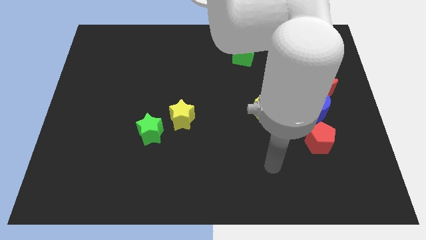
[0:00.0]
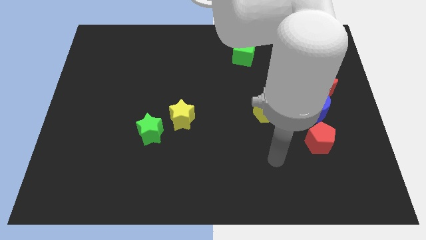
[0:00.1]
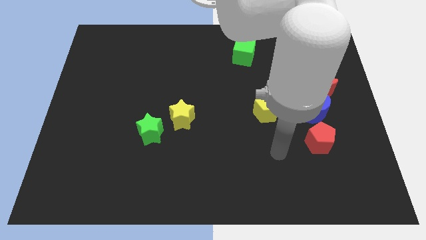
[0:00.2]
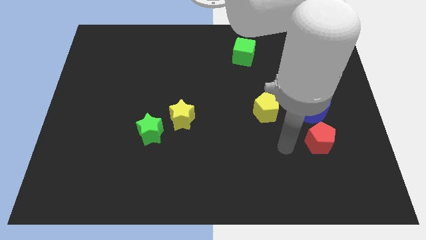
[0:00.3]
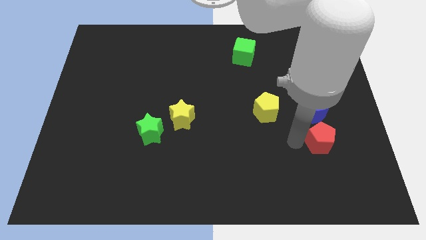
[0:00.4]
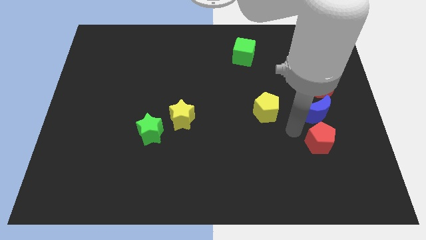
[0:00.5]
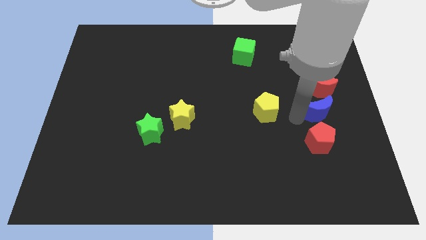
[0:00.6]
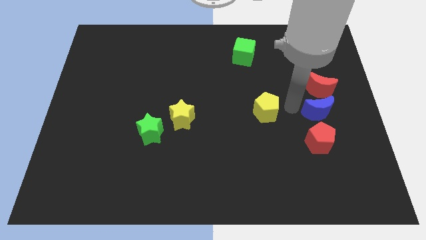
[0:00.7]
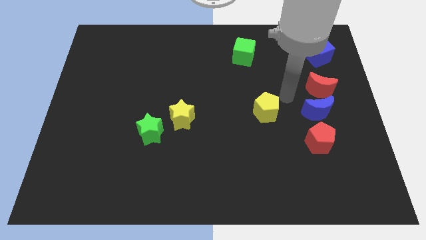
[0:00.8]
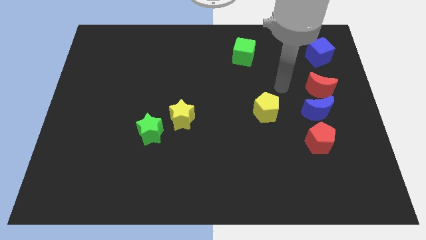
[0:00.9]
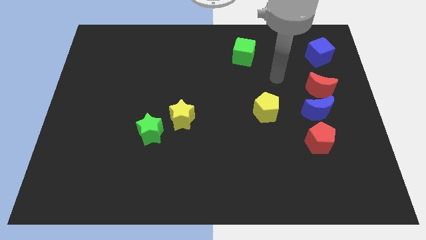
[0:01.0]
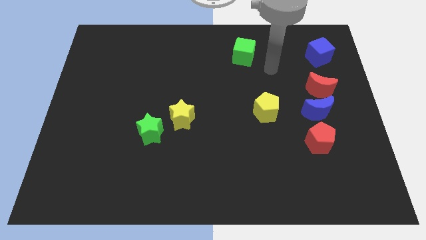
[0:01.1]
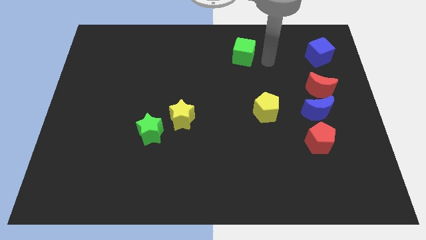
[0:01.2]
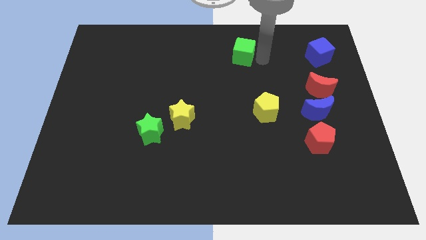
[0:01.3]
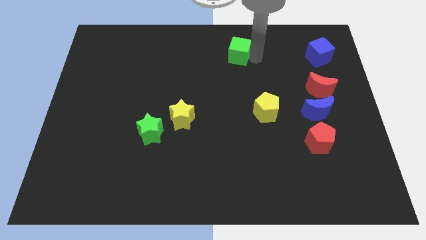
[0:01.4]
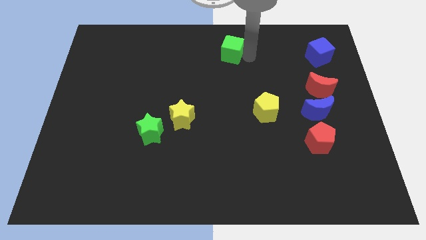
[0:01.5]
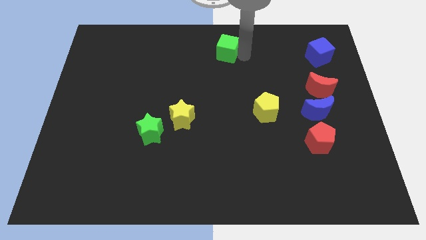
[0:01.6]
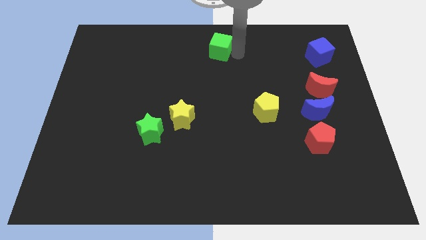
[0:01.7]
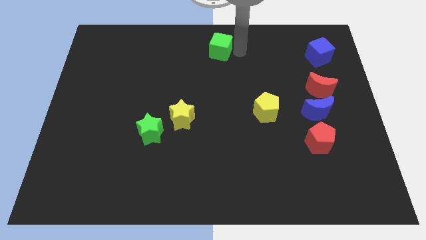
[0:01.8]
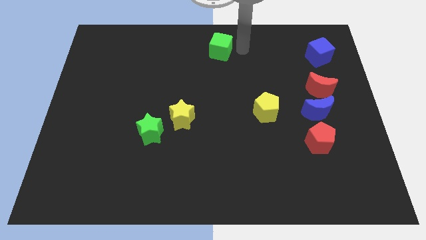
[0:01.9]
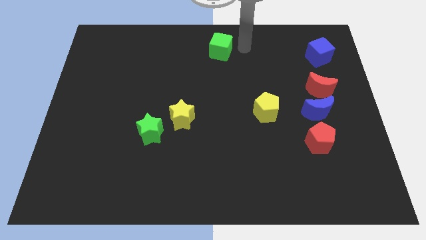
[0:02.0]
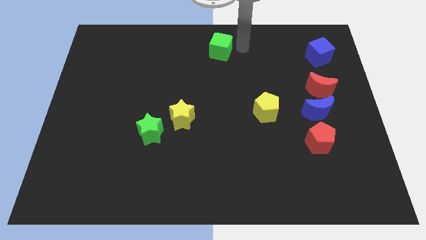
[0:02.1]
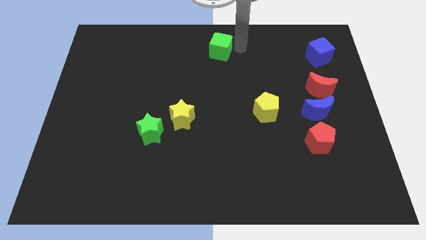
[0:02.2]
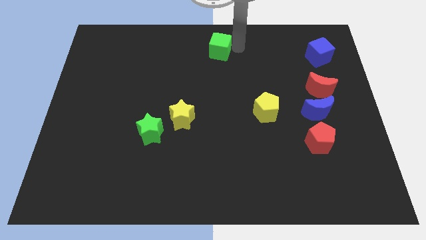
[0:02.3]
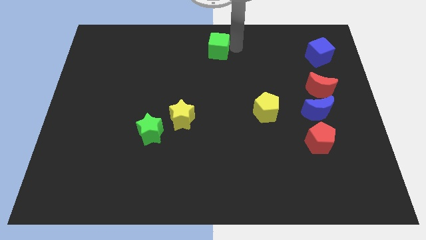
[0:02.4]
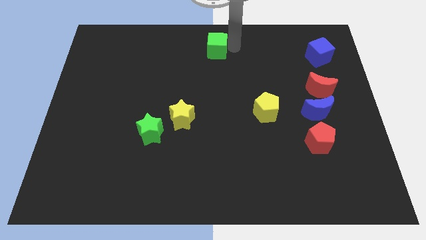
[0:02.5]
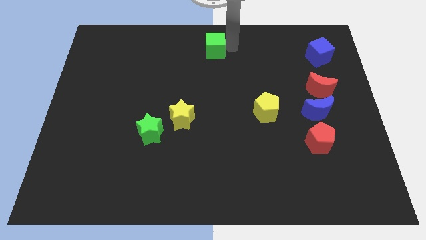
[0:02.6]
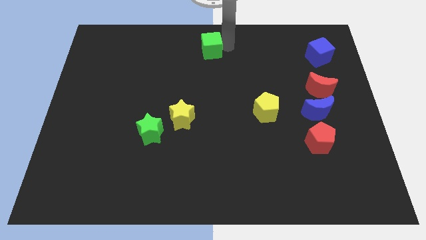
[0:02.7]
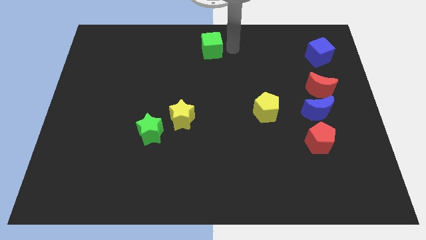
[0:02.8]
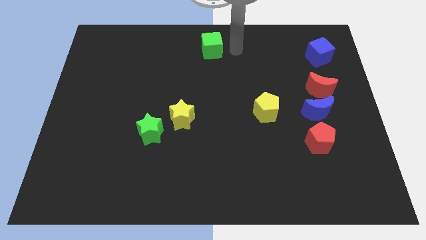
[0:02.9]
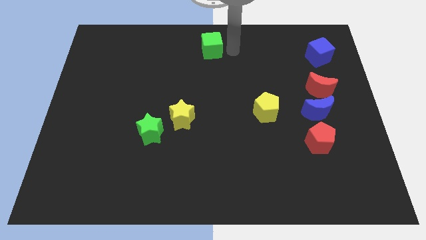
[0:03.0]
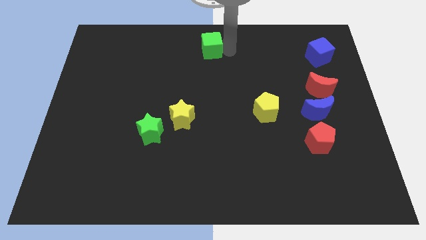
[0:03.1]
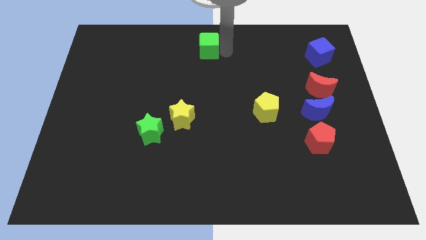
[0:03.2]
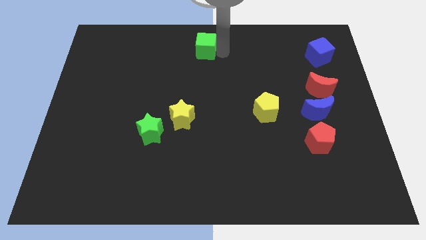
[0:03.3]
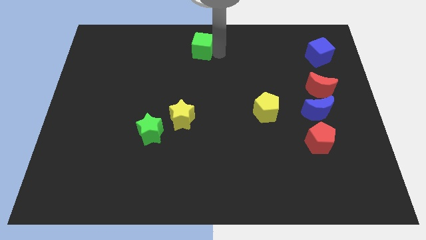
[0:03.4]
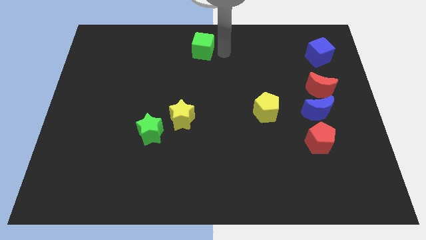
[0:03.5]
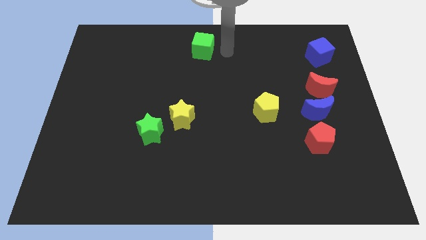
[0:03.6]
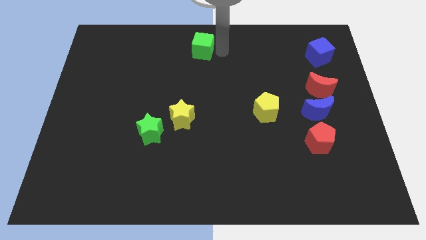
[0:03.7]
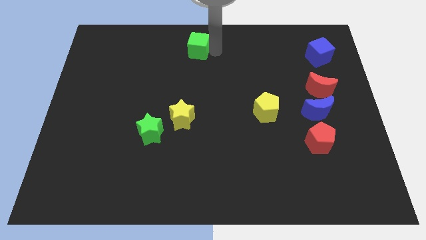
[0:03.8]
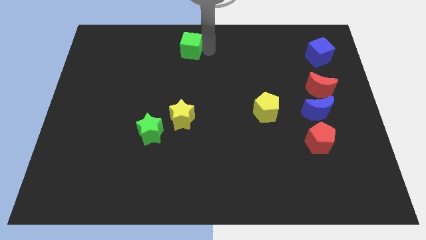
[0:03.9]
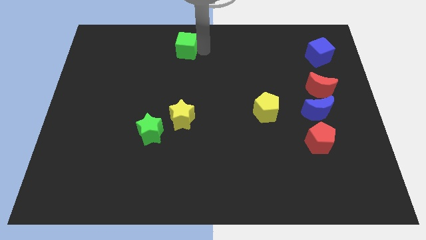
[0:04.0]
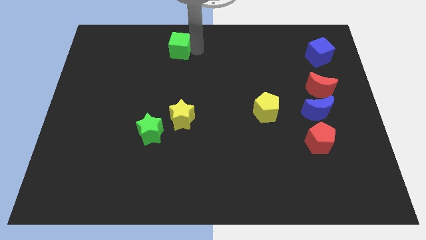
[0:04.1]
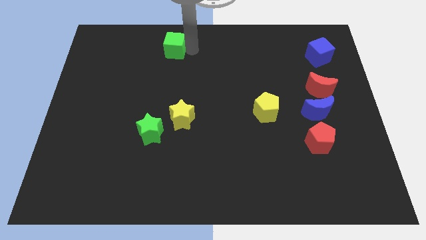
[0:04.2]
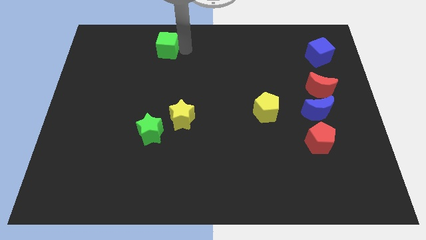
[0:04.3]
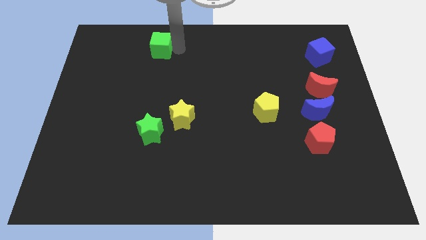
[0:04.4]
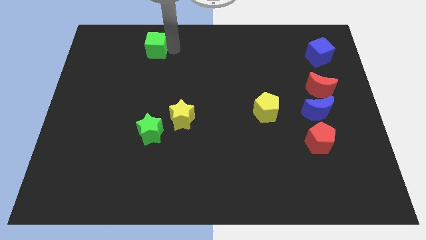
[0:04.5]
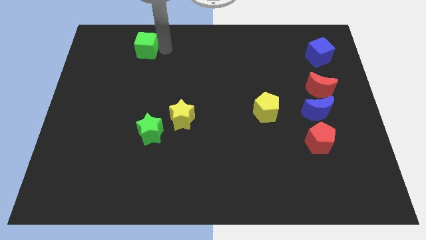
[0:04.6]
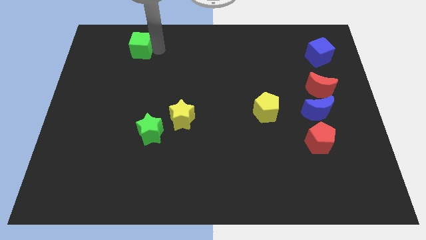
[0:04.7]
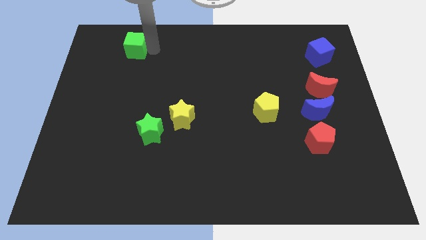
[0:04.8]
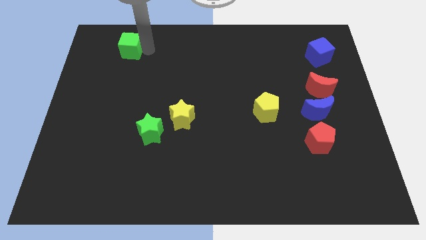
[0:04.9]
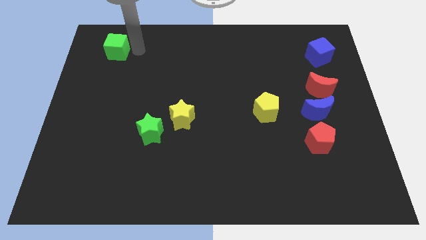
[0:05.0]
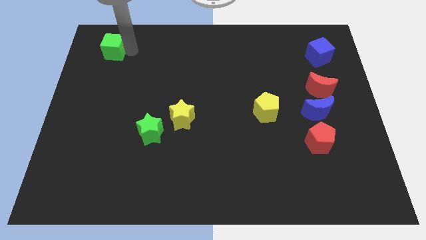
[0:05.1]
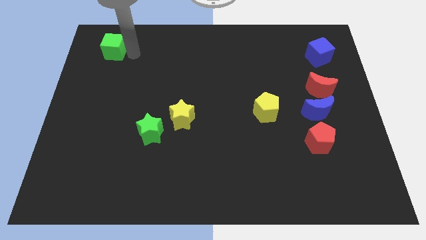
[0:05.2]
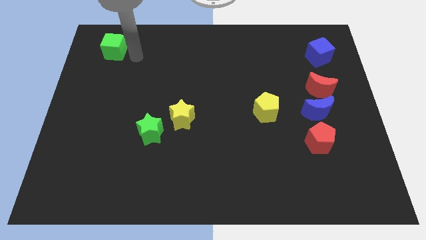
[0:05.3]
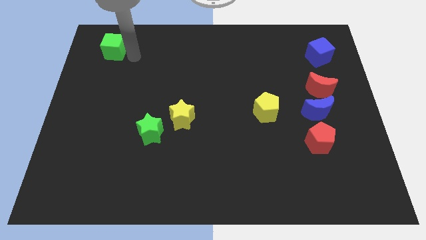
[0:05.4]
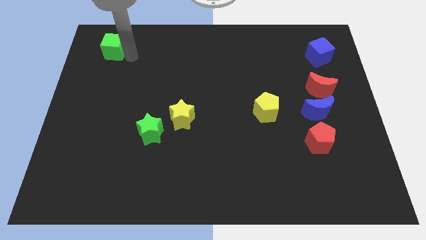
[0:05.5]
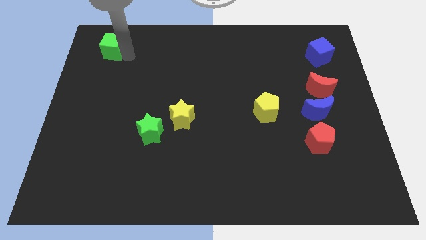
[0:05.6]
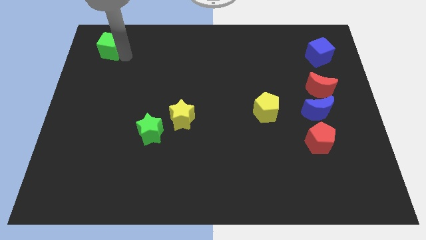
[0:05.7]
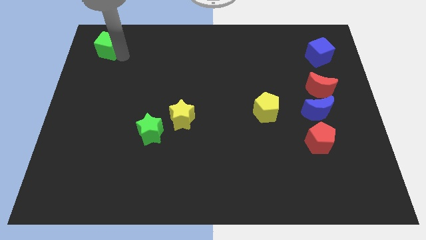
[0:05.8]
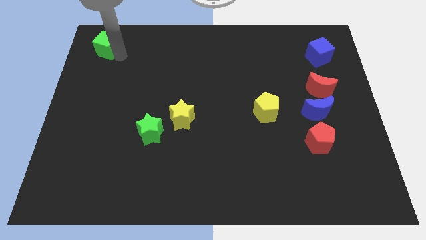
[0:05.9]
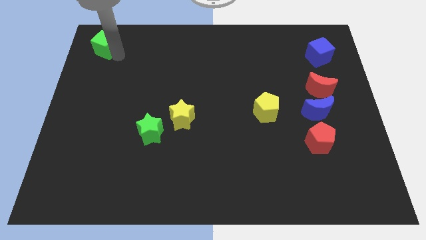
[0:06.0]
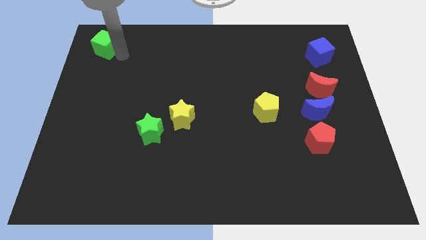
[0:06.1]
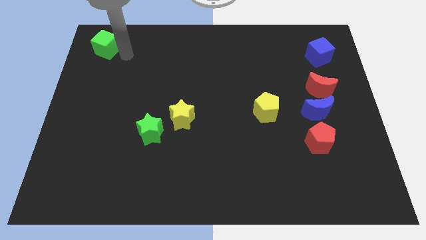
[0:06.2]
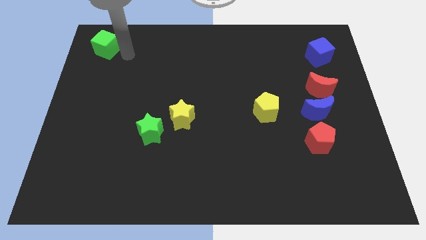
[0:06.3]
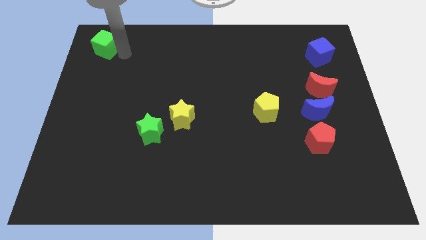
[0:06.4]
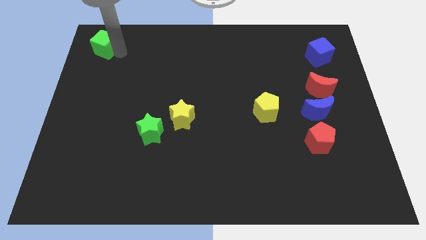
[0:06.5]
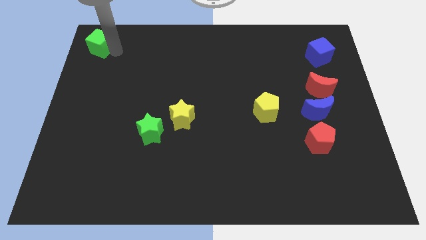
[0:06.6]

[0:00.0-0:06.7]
push the green cube to the top left of the board

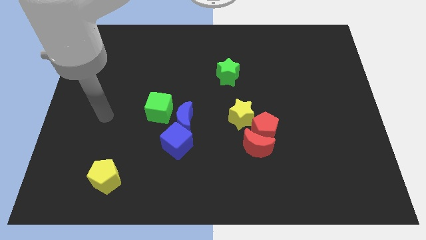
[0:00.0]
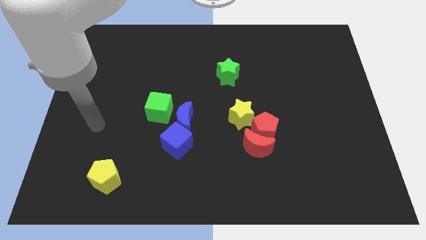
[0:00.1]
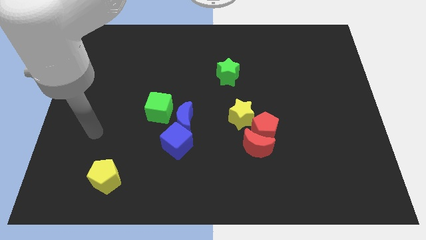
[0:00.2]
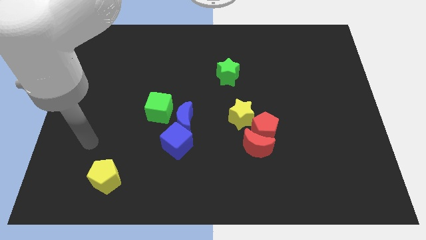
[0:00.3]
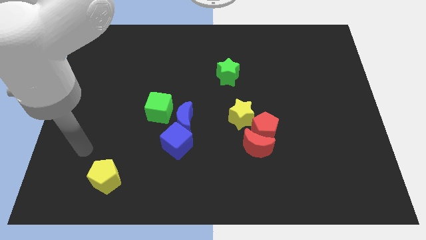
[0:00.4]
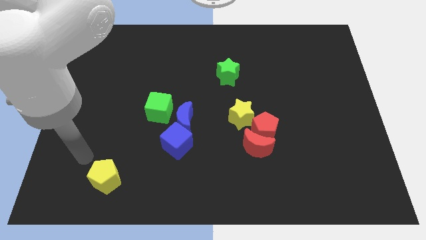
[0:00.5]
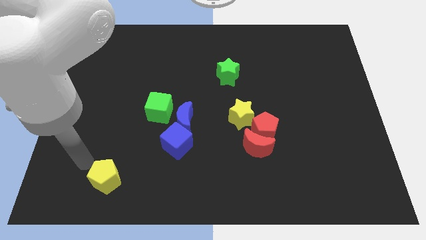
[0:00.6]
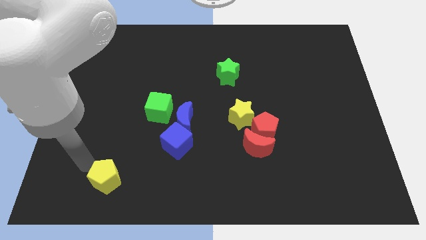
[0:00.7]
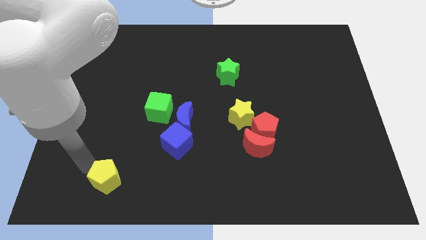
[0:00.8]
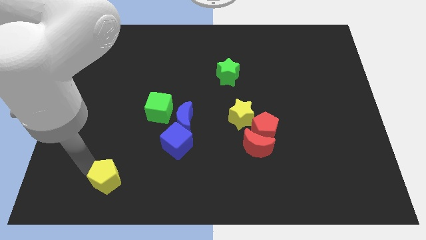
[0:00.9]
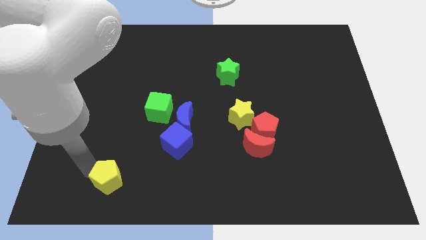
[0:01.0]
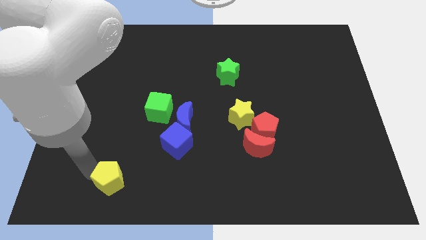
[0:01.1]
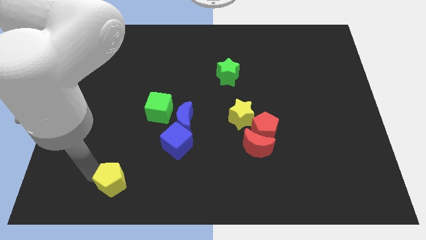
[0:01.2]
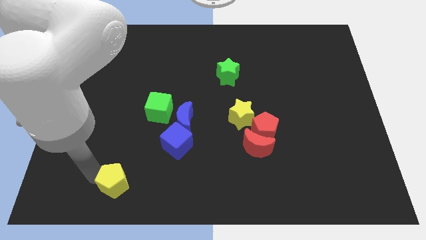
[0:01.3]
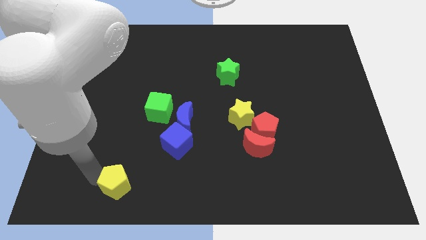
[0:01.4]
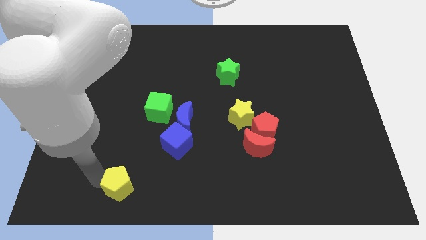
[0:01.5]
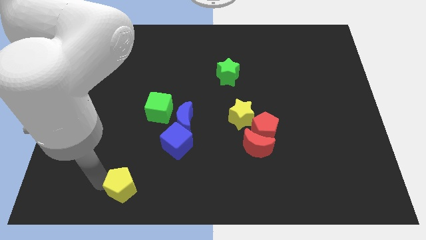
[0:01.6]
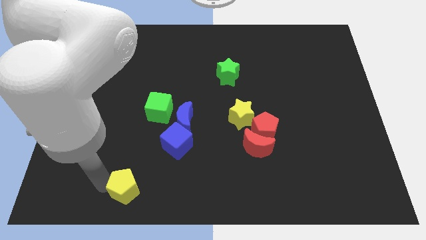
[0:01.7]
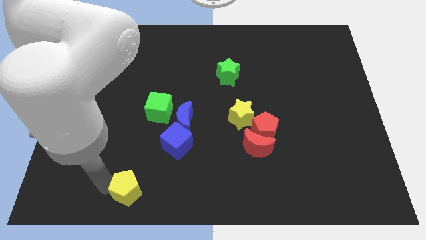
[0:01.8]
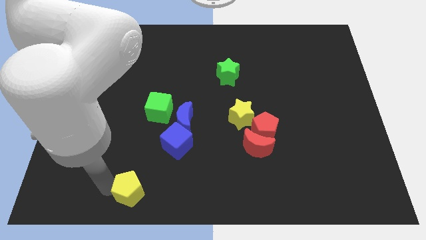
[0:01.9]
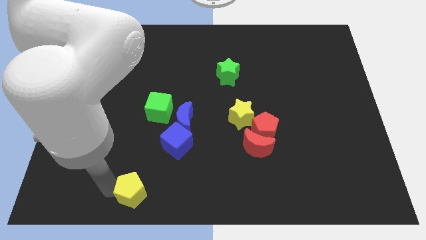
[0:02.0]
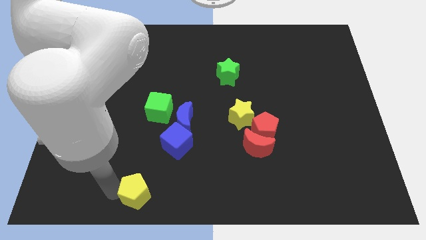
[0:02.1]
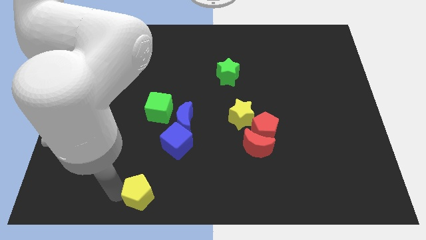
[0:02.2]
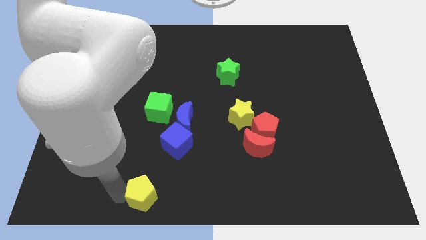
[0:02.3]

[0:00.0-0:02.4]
move the yellow pentagon to the bottom side
